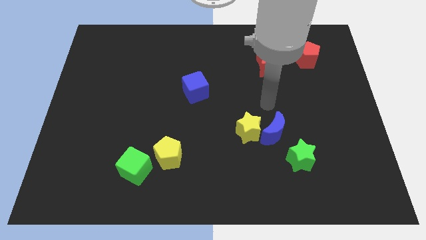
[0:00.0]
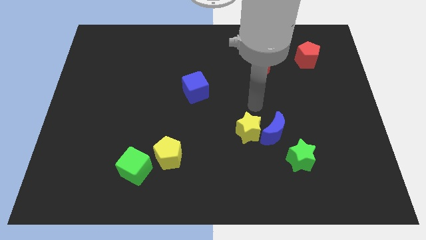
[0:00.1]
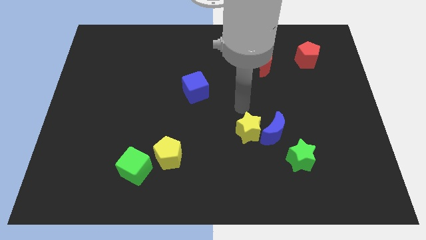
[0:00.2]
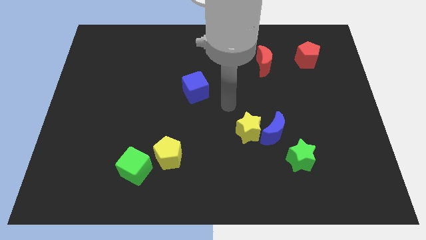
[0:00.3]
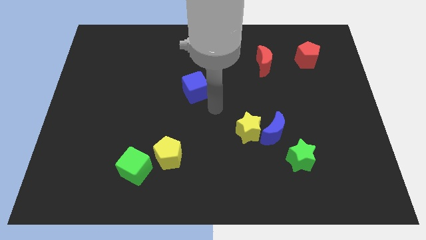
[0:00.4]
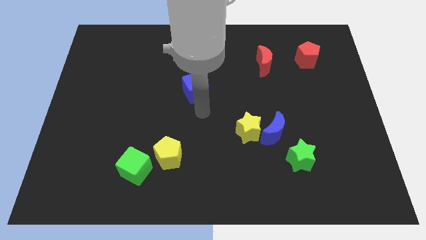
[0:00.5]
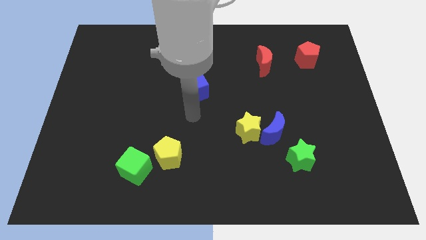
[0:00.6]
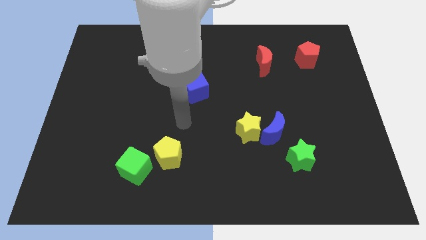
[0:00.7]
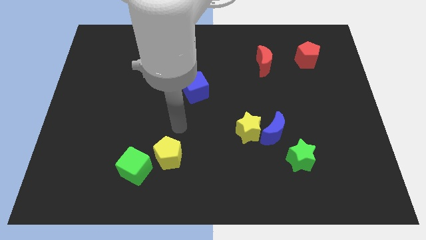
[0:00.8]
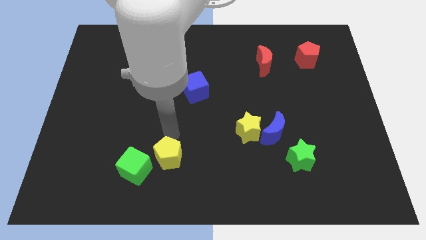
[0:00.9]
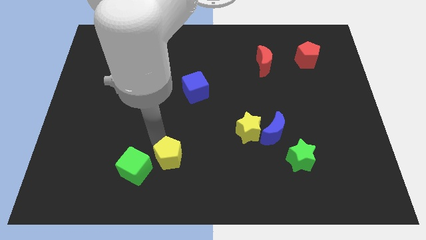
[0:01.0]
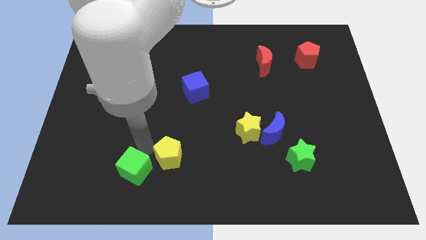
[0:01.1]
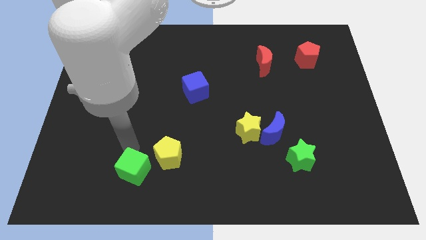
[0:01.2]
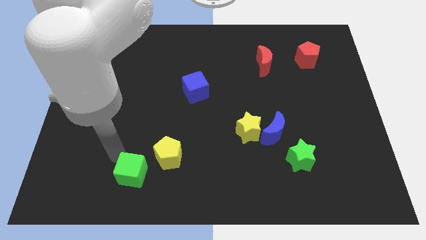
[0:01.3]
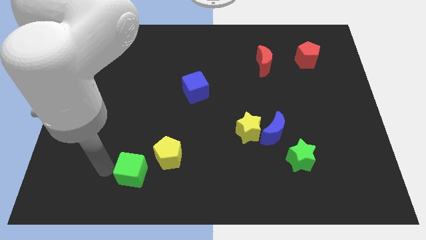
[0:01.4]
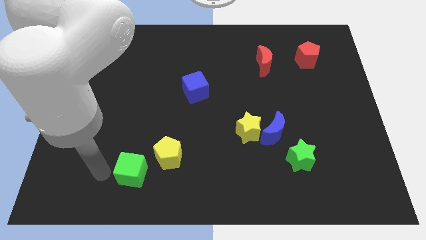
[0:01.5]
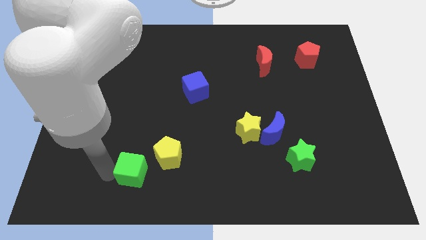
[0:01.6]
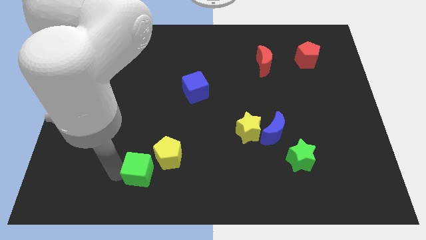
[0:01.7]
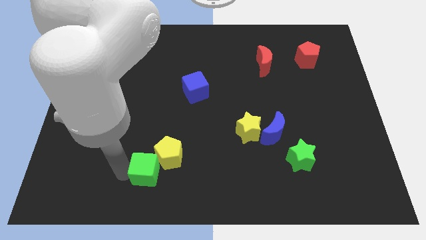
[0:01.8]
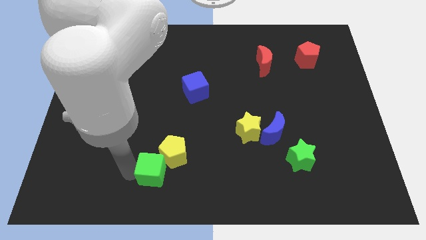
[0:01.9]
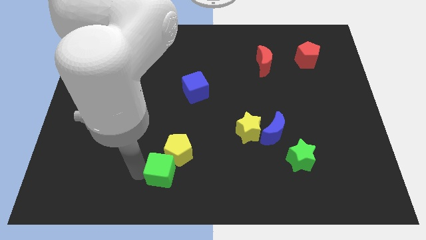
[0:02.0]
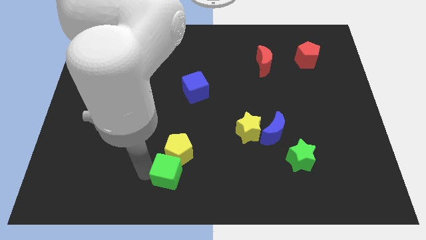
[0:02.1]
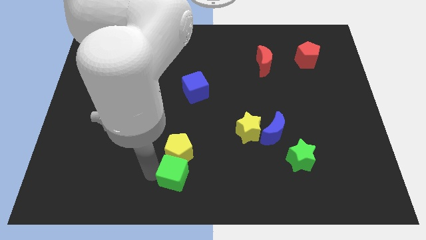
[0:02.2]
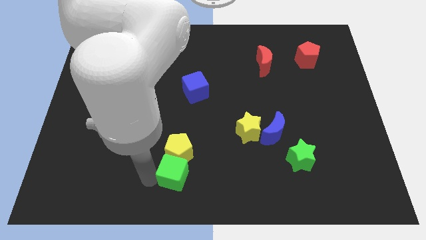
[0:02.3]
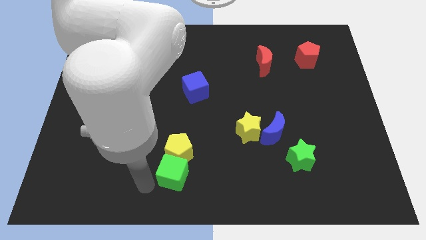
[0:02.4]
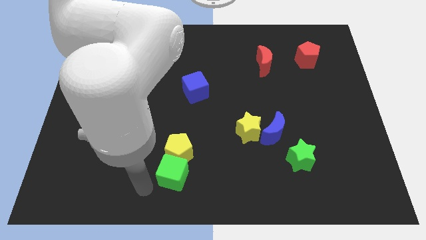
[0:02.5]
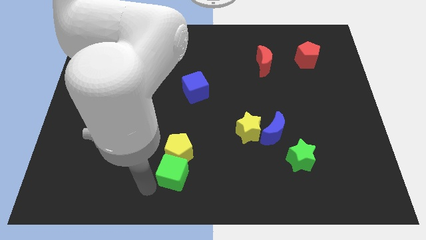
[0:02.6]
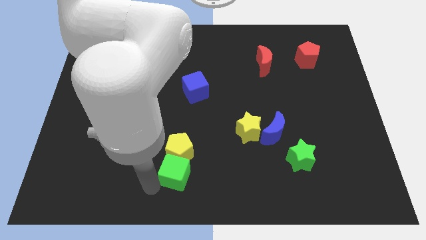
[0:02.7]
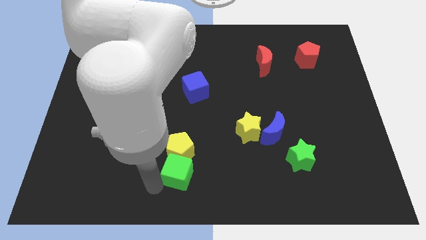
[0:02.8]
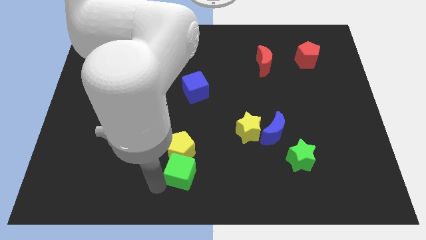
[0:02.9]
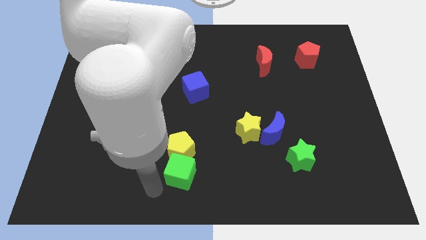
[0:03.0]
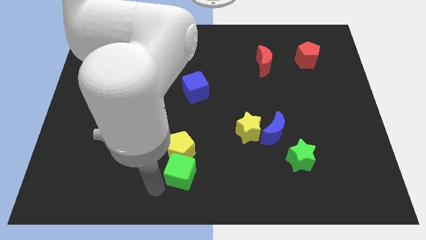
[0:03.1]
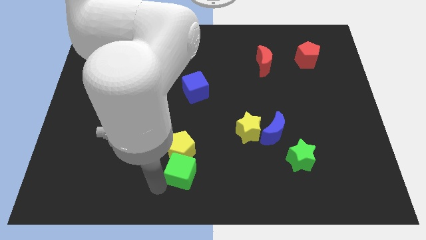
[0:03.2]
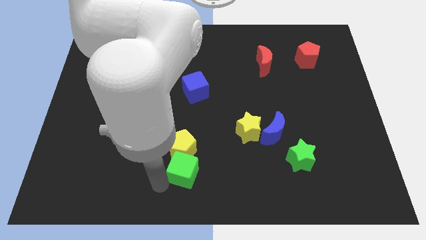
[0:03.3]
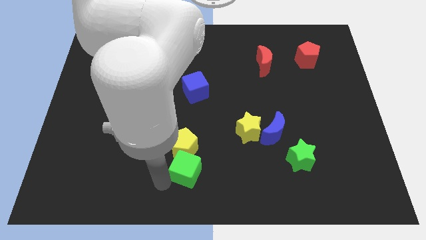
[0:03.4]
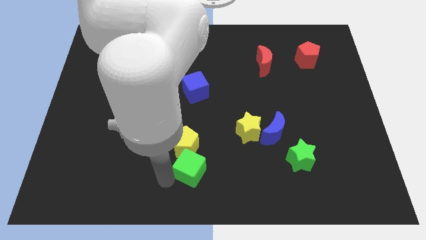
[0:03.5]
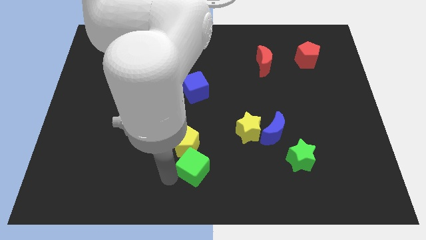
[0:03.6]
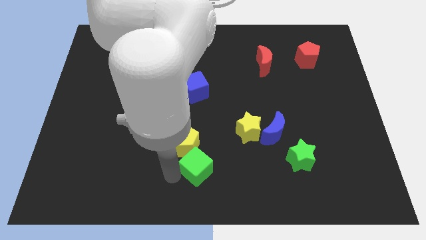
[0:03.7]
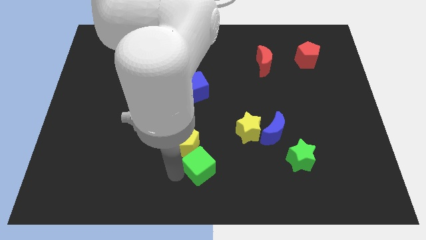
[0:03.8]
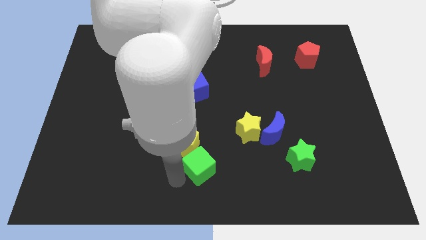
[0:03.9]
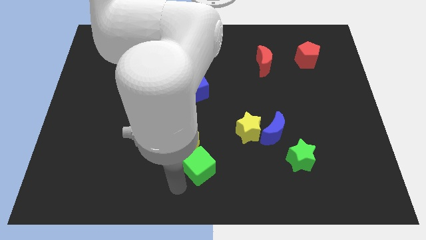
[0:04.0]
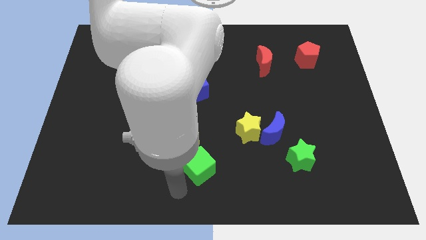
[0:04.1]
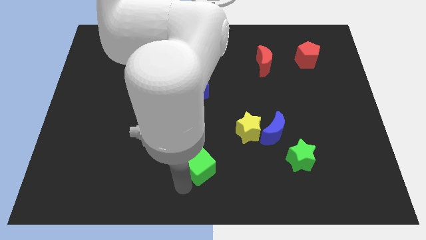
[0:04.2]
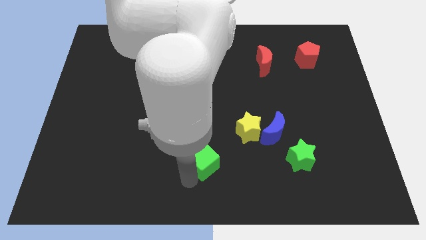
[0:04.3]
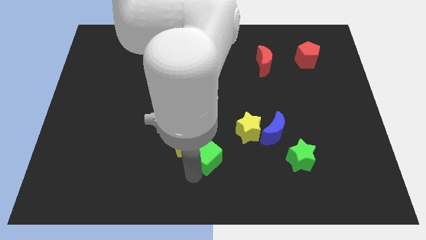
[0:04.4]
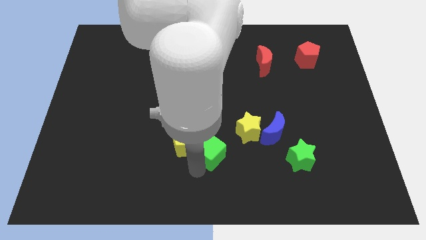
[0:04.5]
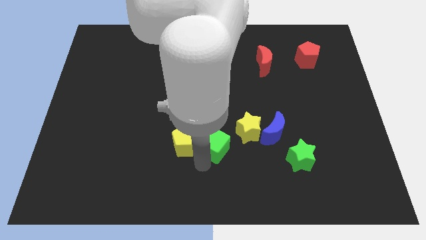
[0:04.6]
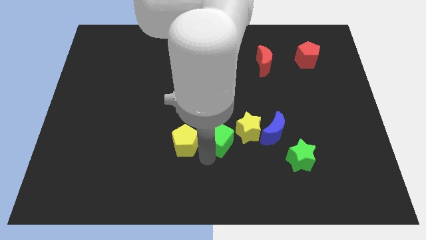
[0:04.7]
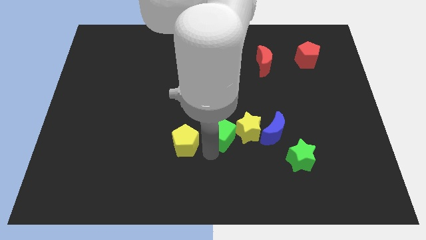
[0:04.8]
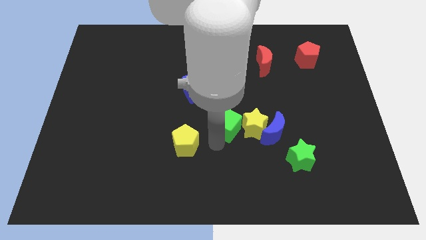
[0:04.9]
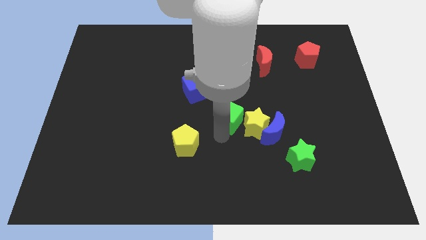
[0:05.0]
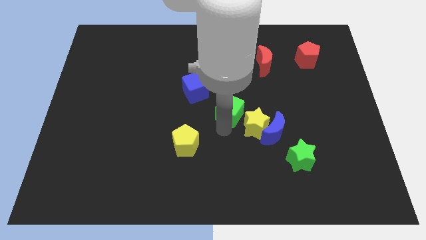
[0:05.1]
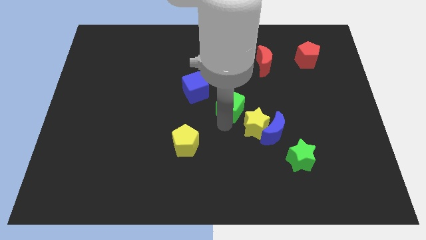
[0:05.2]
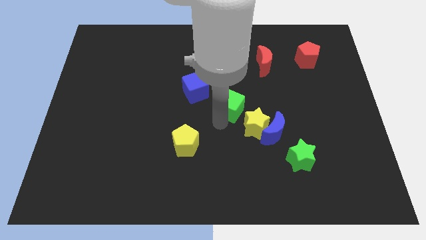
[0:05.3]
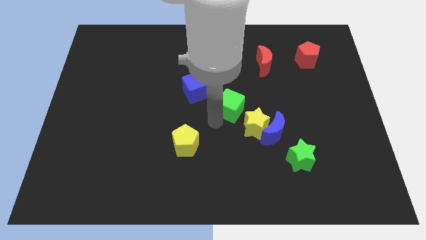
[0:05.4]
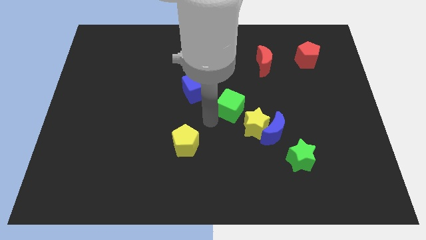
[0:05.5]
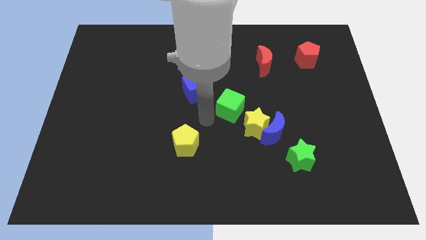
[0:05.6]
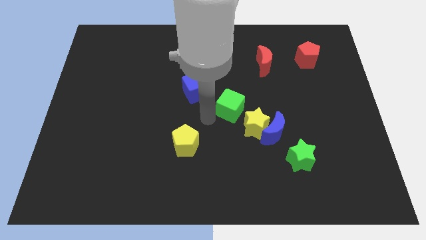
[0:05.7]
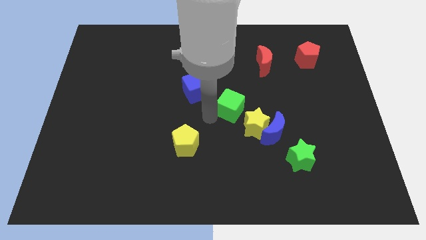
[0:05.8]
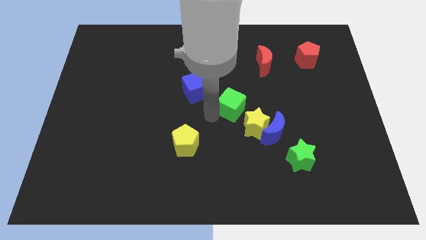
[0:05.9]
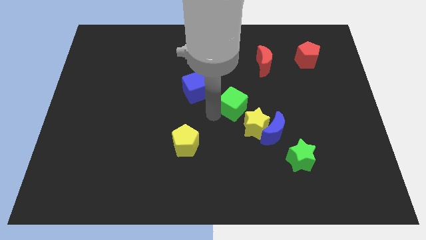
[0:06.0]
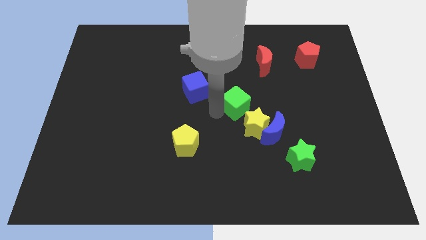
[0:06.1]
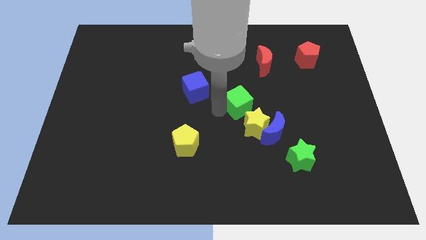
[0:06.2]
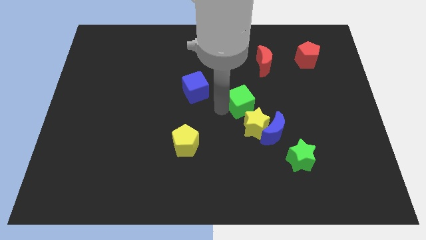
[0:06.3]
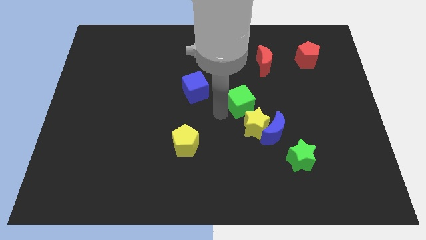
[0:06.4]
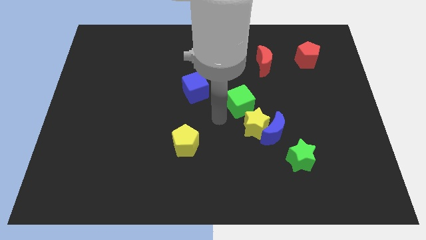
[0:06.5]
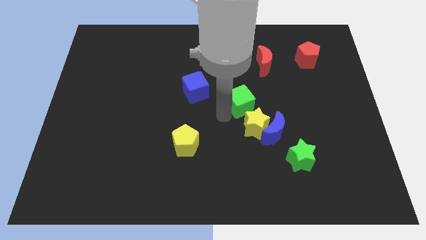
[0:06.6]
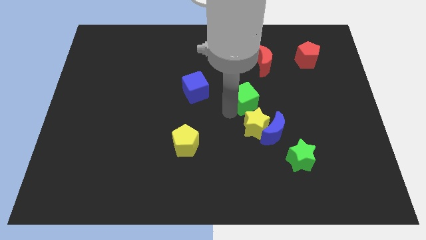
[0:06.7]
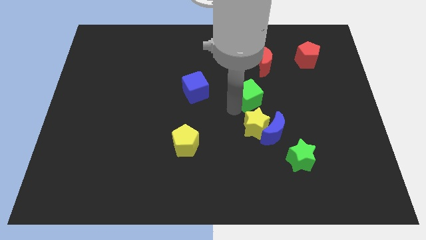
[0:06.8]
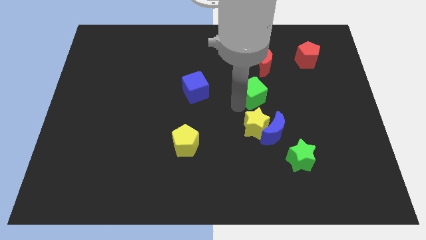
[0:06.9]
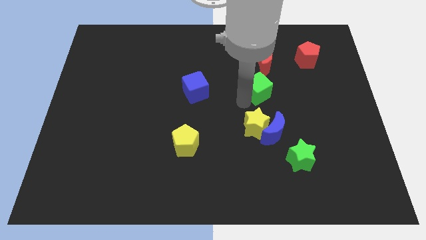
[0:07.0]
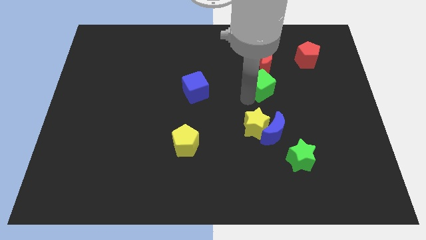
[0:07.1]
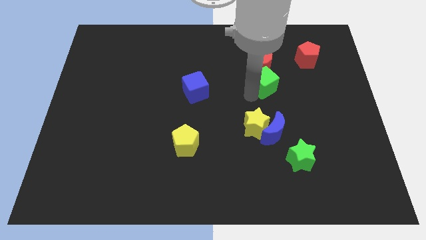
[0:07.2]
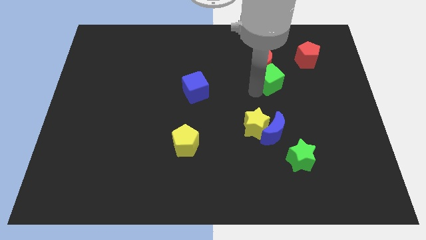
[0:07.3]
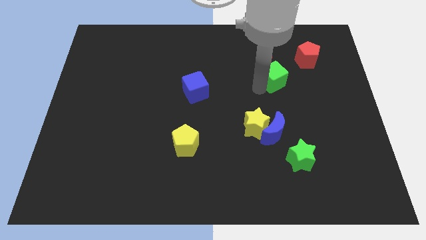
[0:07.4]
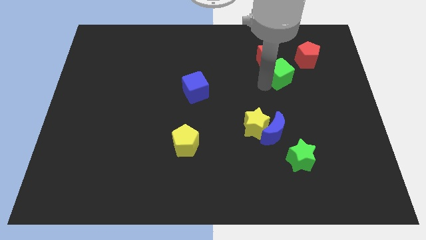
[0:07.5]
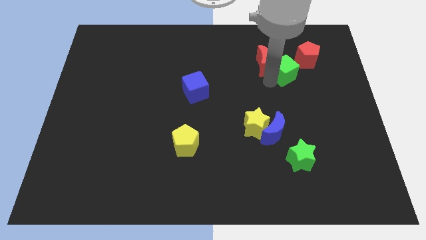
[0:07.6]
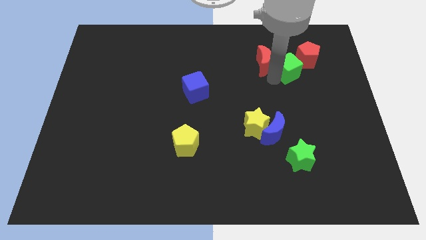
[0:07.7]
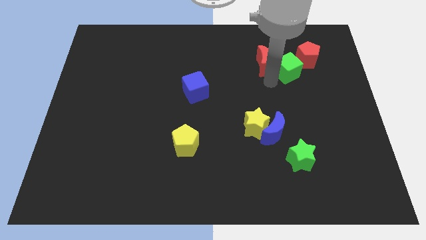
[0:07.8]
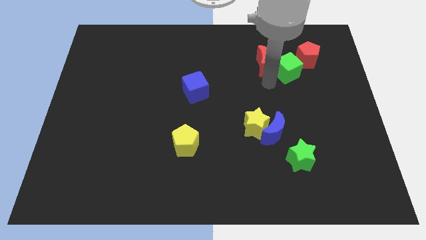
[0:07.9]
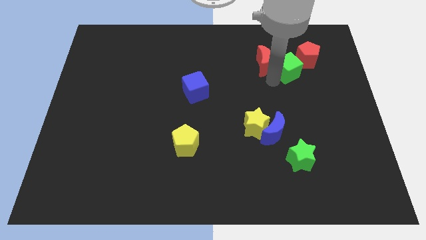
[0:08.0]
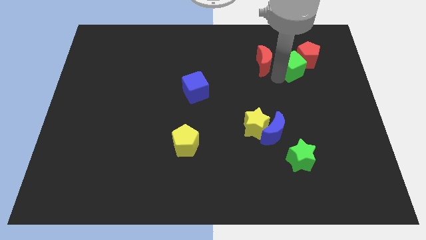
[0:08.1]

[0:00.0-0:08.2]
move the green cube towards the red pentagon
